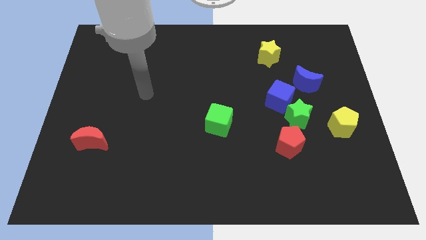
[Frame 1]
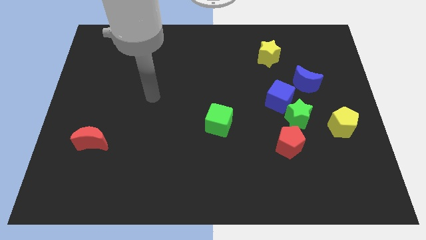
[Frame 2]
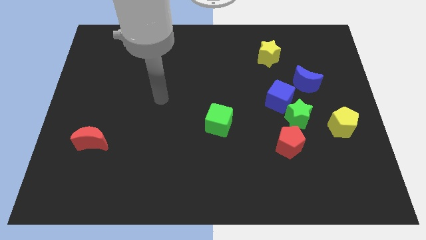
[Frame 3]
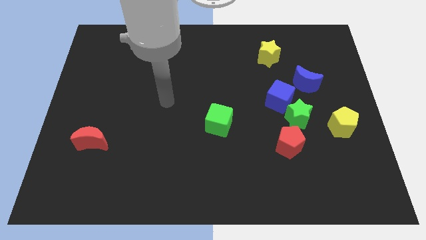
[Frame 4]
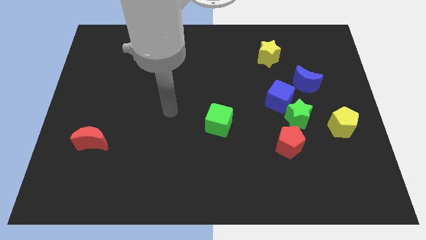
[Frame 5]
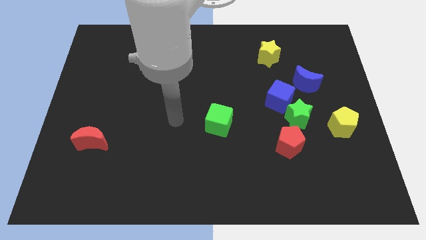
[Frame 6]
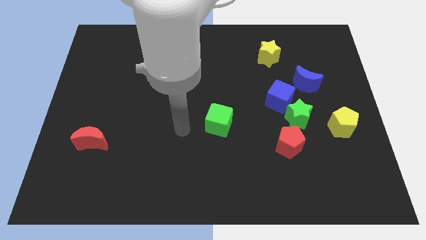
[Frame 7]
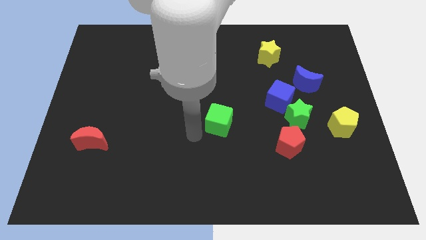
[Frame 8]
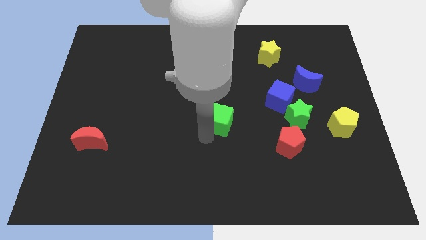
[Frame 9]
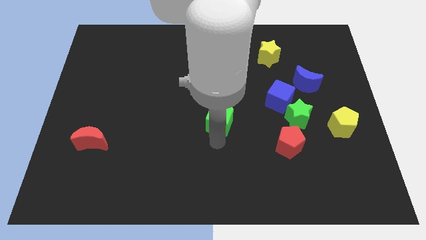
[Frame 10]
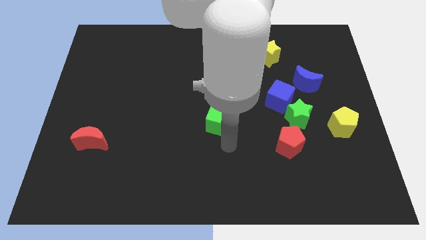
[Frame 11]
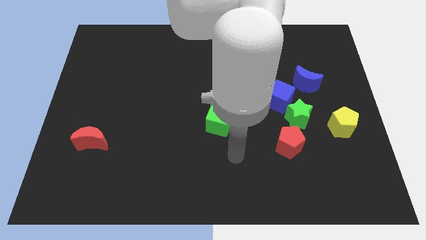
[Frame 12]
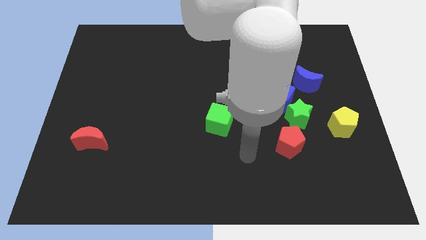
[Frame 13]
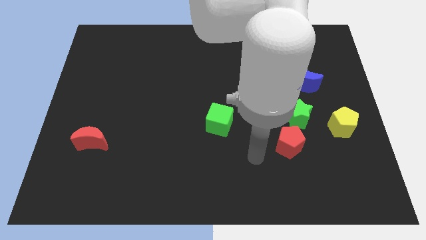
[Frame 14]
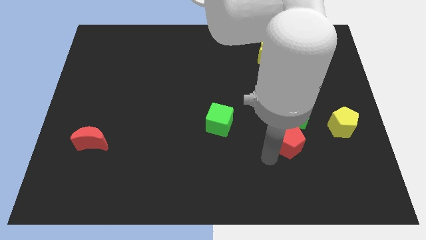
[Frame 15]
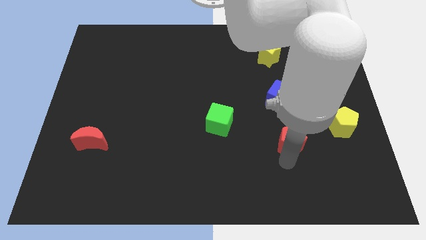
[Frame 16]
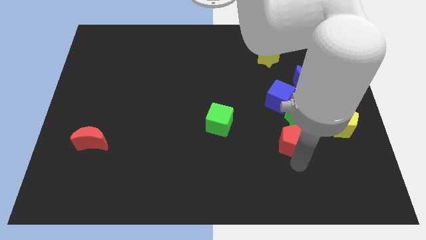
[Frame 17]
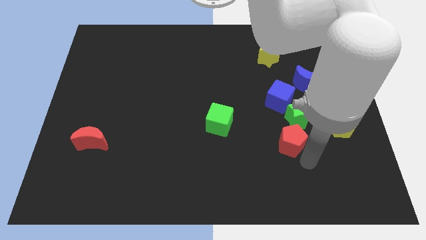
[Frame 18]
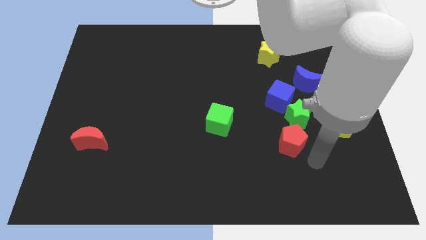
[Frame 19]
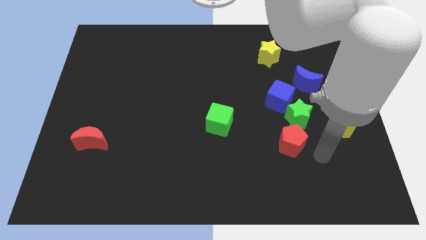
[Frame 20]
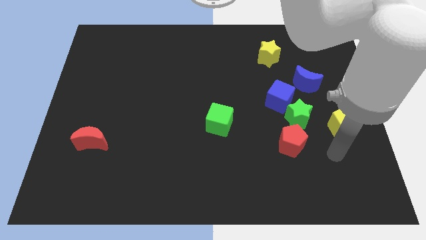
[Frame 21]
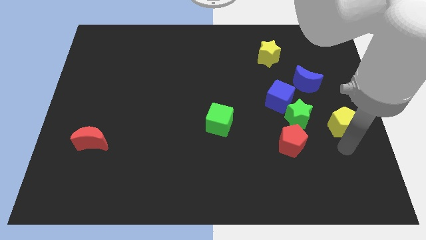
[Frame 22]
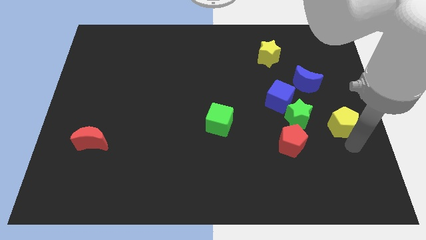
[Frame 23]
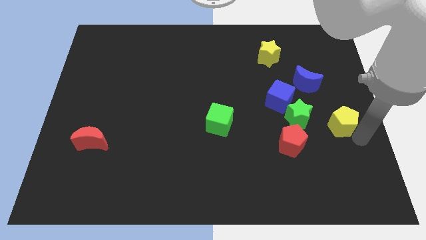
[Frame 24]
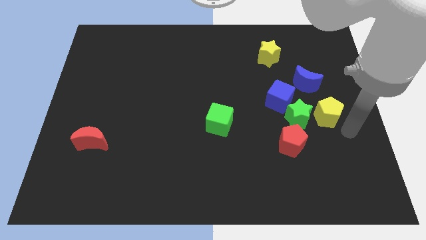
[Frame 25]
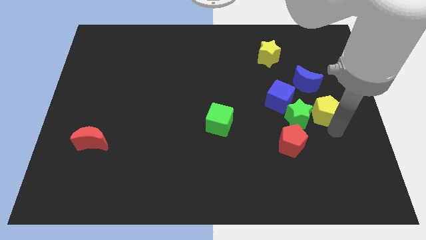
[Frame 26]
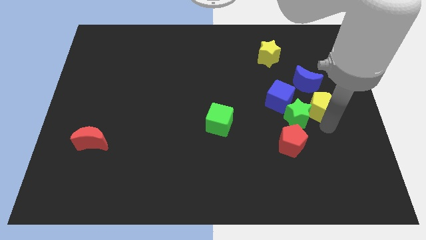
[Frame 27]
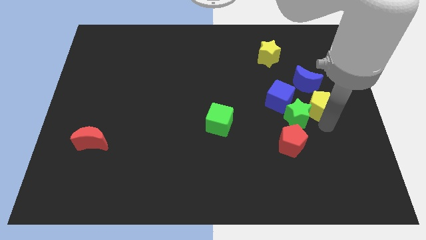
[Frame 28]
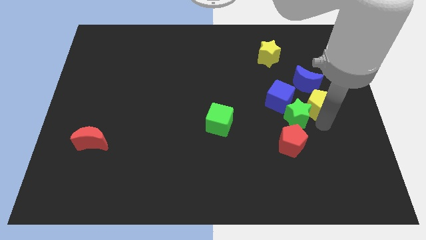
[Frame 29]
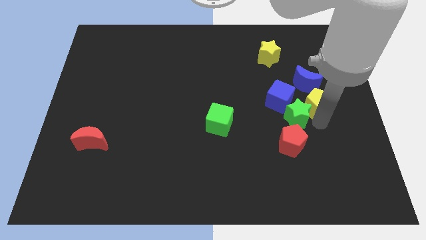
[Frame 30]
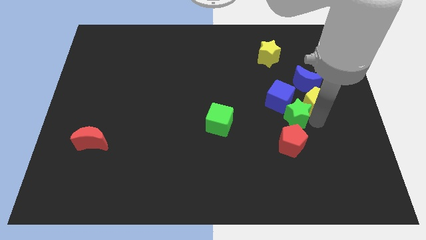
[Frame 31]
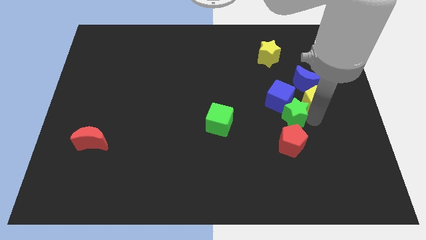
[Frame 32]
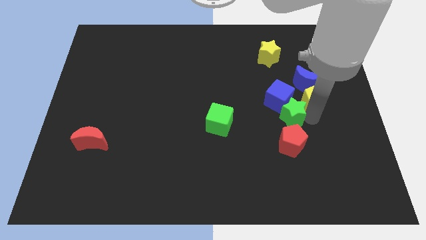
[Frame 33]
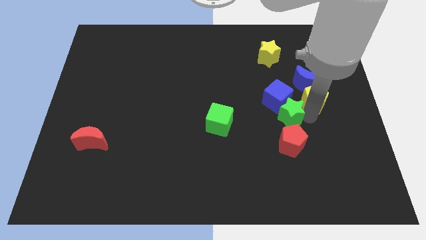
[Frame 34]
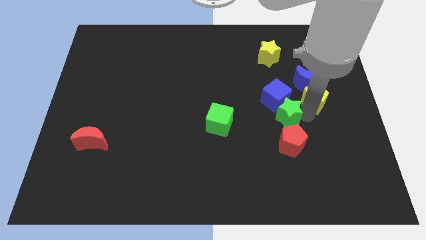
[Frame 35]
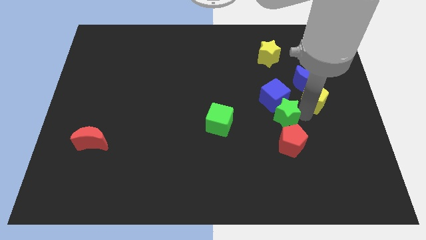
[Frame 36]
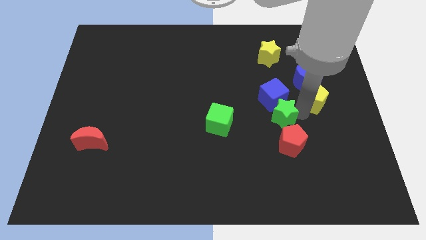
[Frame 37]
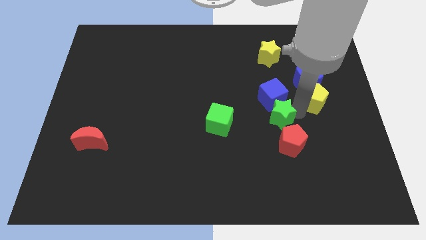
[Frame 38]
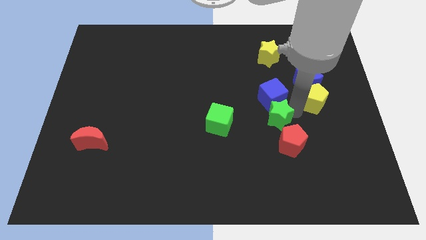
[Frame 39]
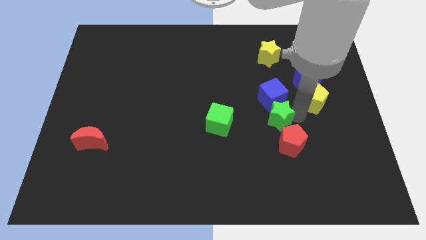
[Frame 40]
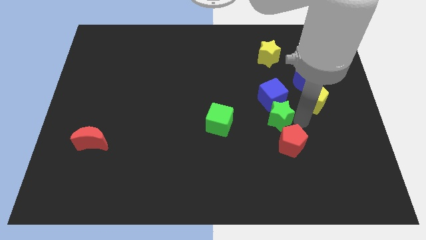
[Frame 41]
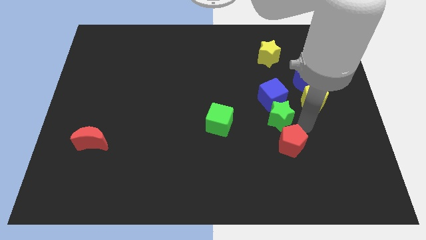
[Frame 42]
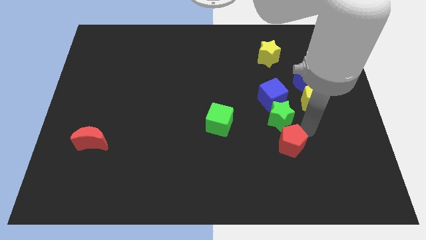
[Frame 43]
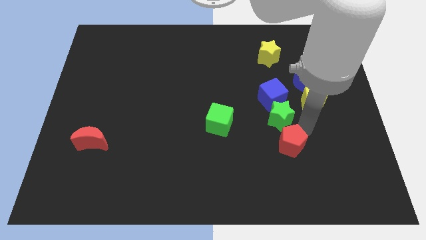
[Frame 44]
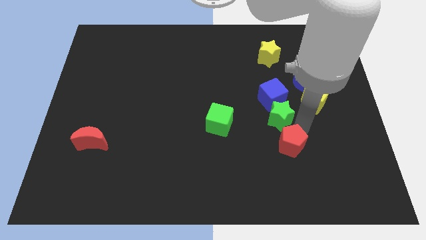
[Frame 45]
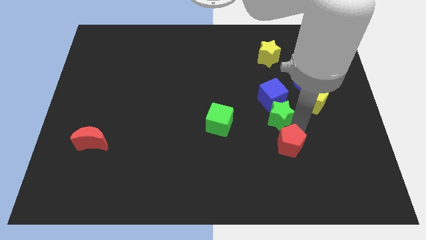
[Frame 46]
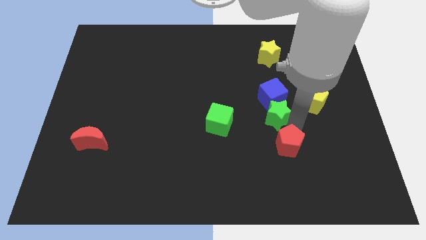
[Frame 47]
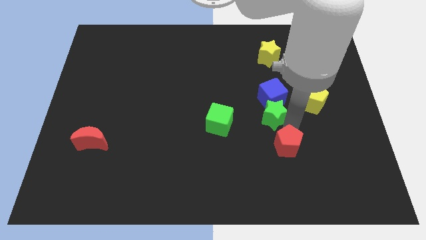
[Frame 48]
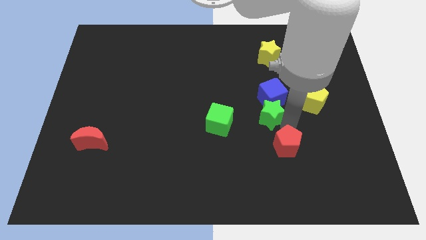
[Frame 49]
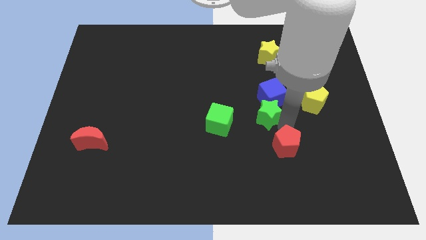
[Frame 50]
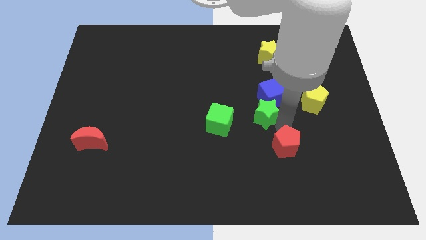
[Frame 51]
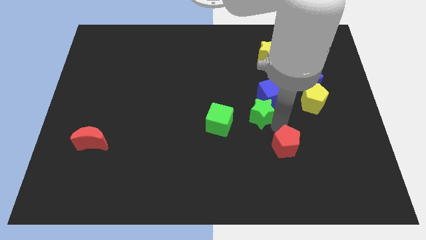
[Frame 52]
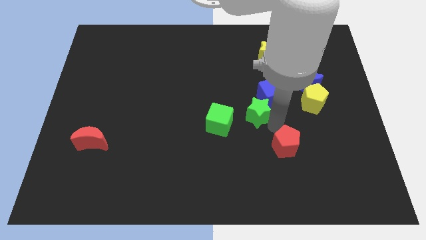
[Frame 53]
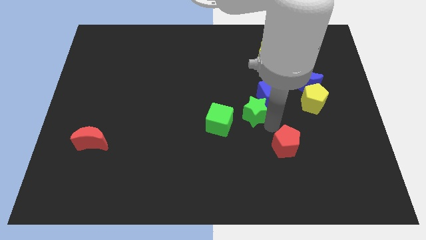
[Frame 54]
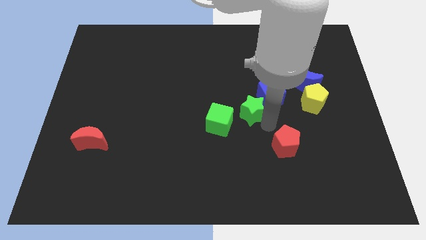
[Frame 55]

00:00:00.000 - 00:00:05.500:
slightly push the green star up and to the left

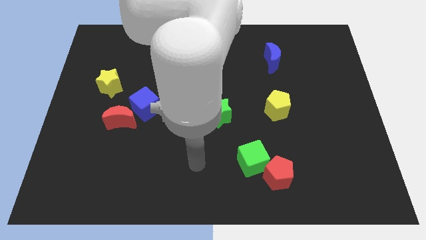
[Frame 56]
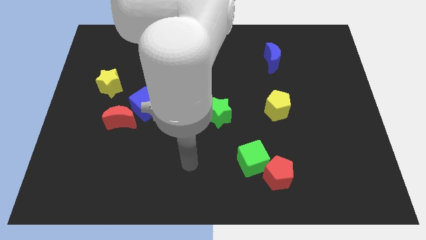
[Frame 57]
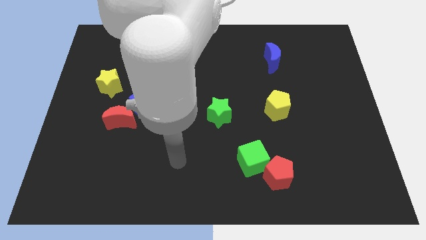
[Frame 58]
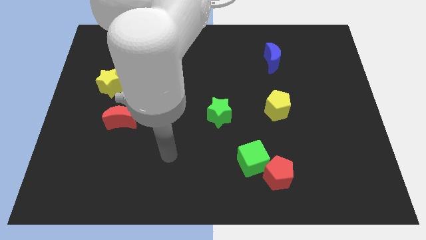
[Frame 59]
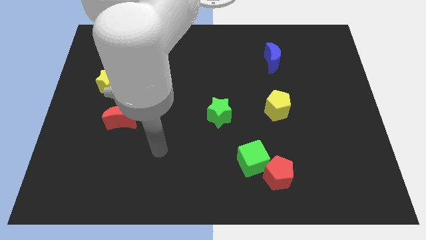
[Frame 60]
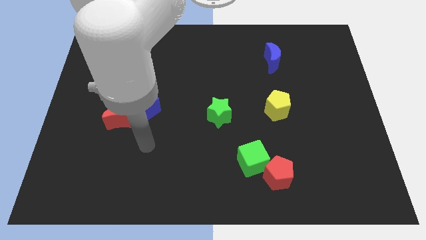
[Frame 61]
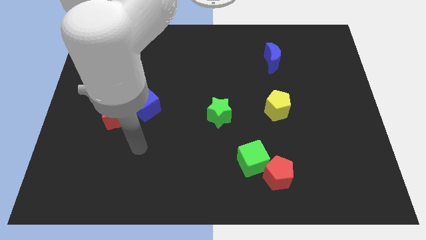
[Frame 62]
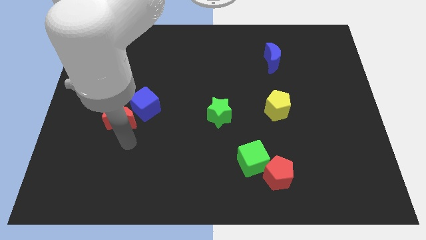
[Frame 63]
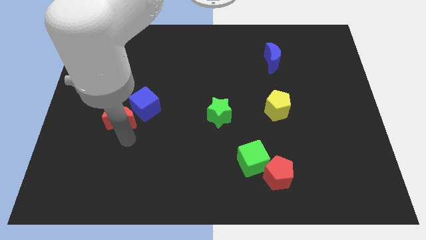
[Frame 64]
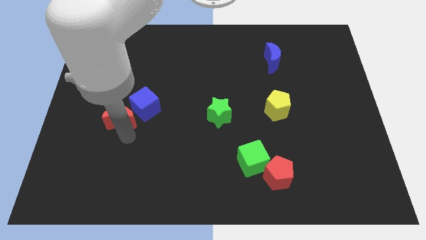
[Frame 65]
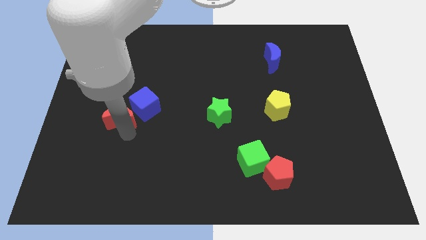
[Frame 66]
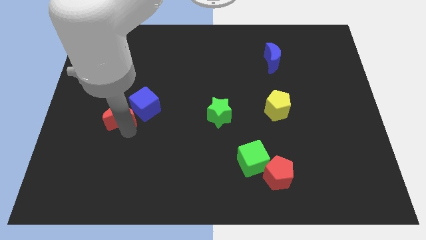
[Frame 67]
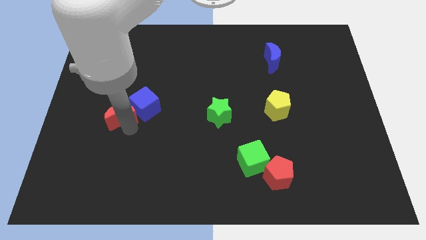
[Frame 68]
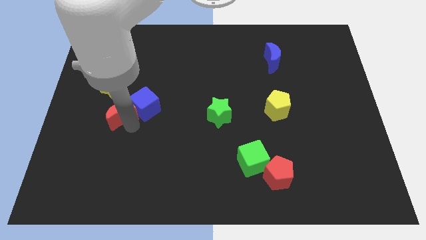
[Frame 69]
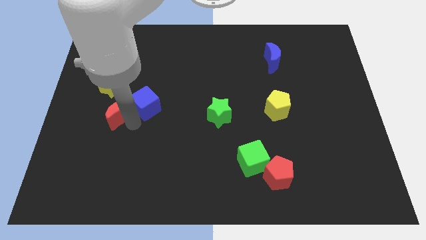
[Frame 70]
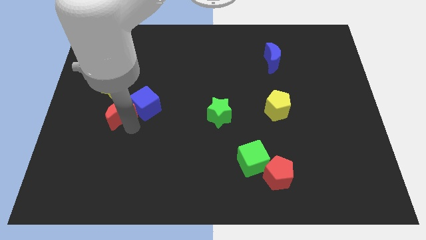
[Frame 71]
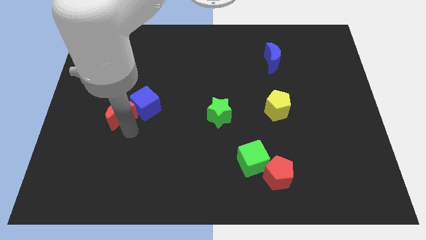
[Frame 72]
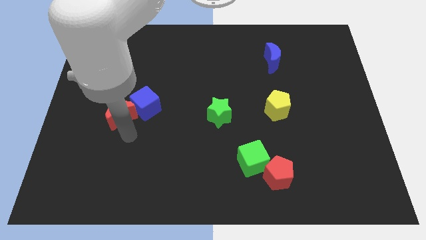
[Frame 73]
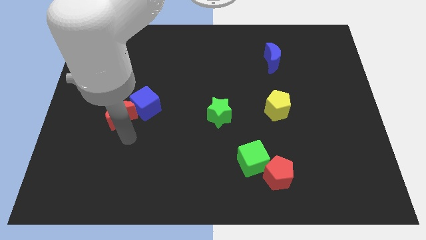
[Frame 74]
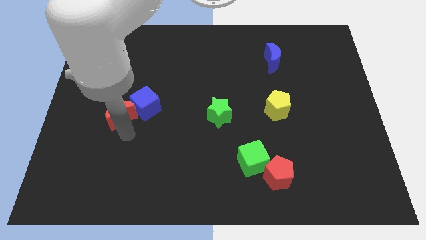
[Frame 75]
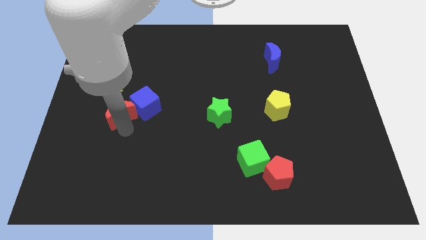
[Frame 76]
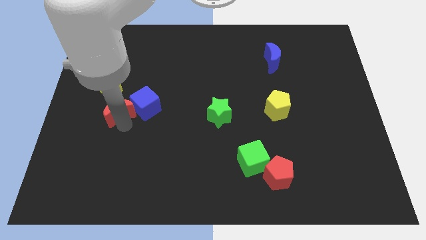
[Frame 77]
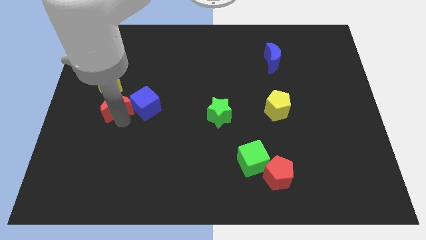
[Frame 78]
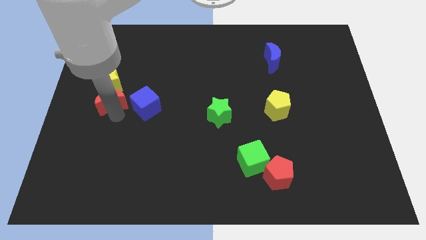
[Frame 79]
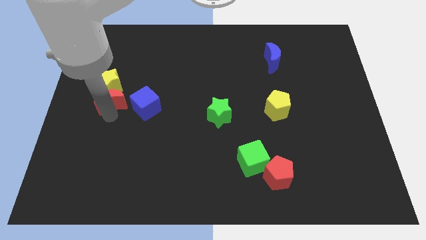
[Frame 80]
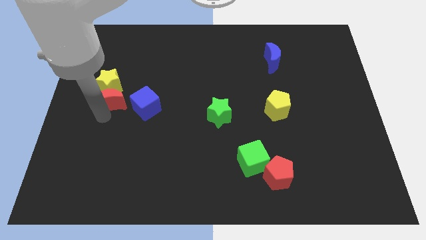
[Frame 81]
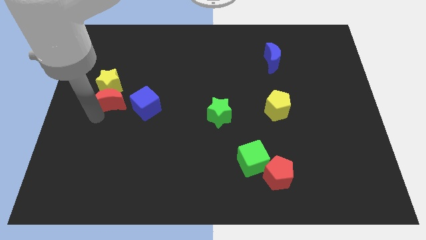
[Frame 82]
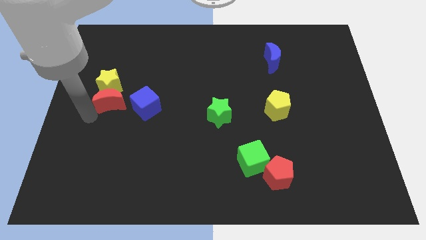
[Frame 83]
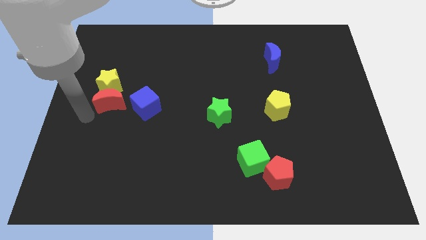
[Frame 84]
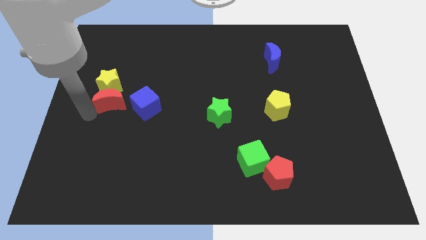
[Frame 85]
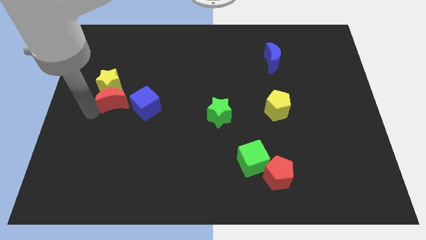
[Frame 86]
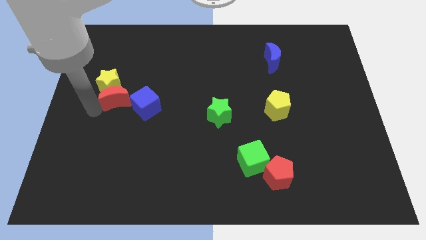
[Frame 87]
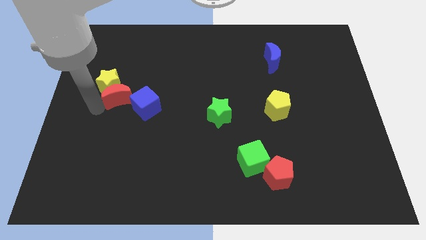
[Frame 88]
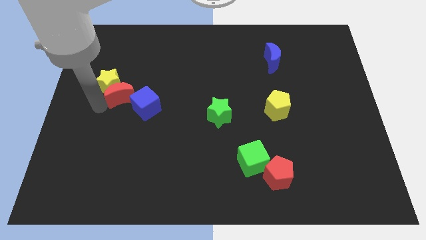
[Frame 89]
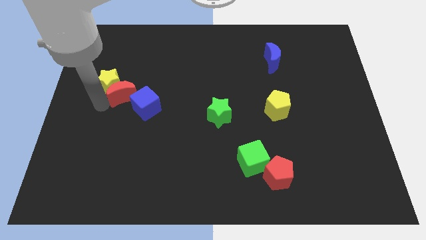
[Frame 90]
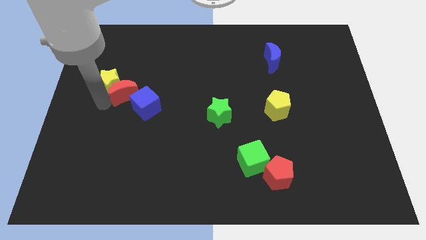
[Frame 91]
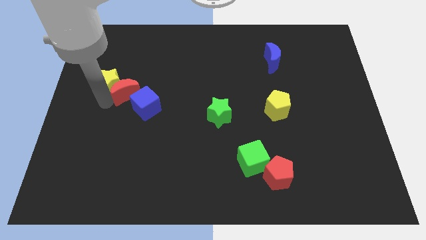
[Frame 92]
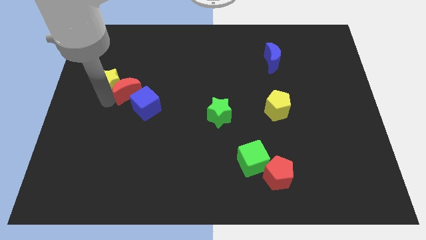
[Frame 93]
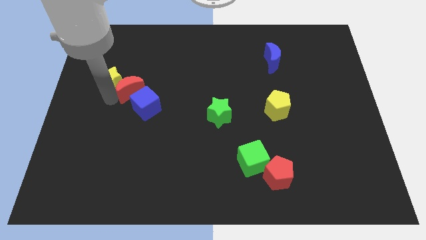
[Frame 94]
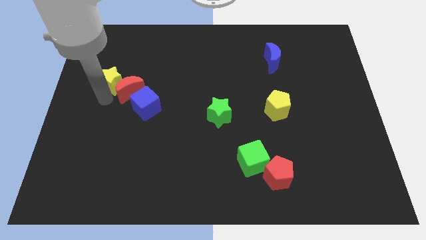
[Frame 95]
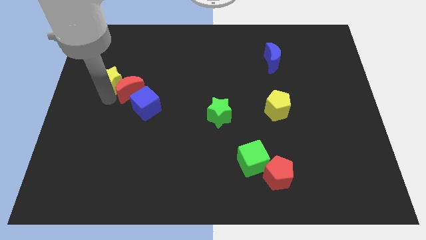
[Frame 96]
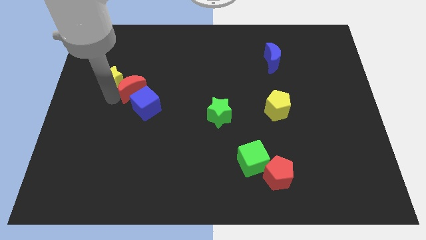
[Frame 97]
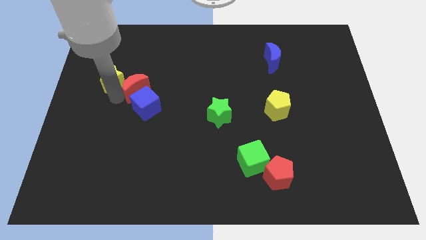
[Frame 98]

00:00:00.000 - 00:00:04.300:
slightly slide the red moon up and to the right diagonally
